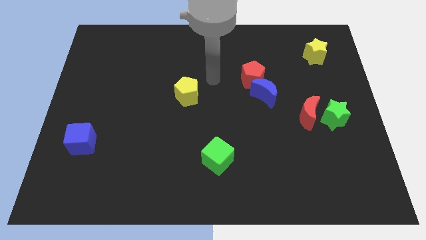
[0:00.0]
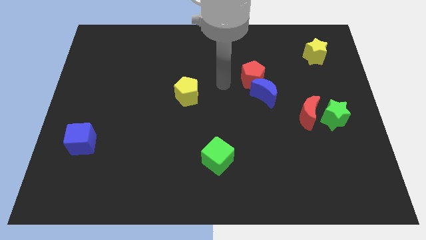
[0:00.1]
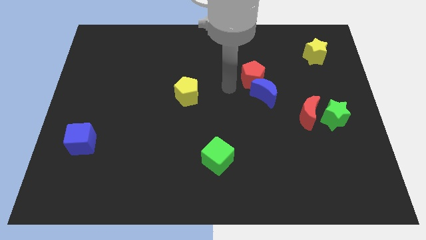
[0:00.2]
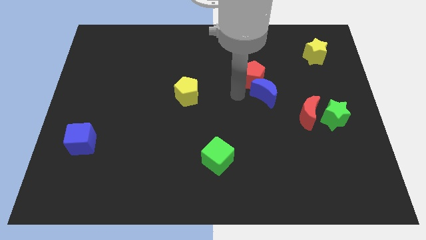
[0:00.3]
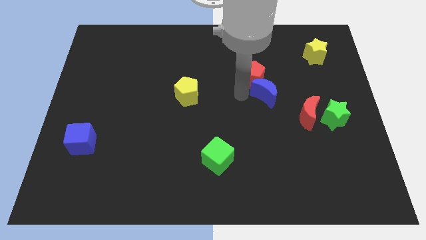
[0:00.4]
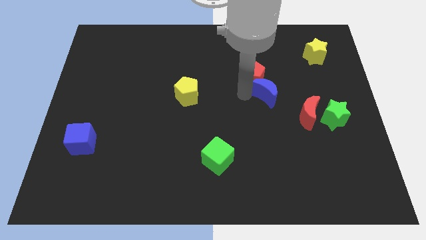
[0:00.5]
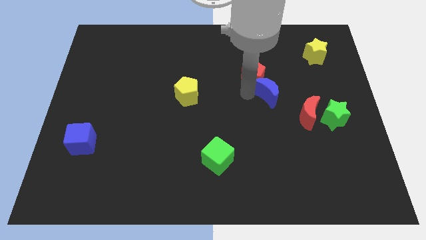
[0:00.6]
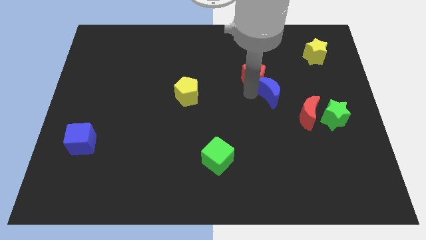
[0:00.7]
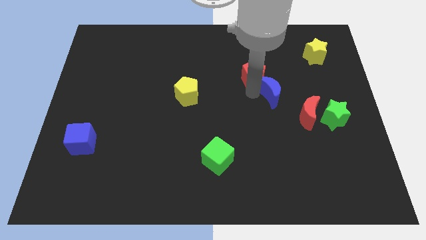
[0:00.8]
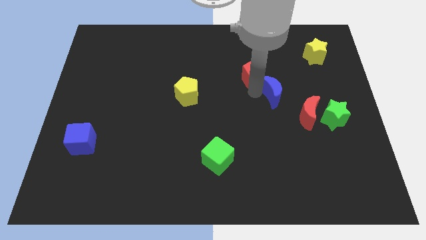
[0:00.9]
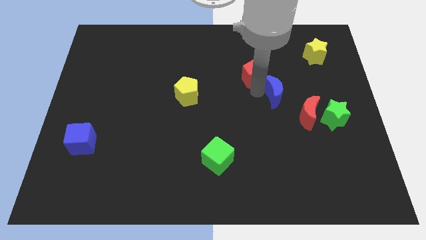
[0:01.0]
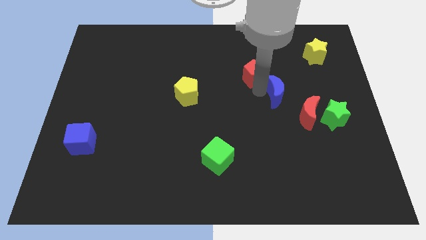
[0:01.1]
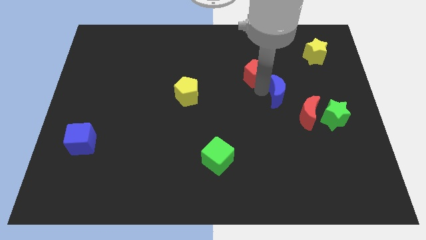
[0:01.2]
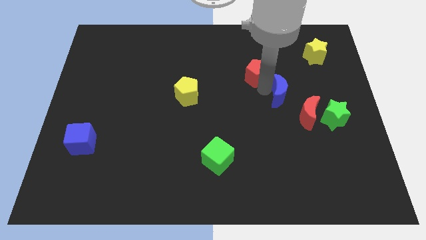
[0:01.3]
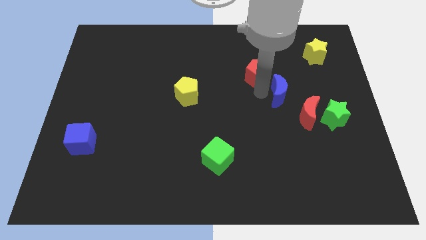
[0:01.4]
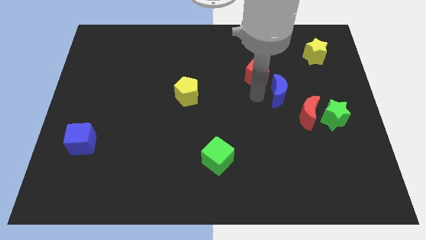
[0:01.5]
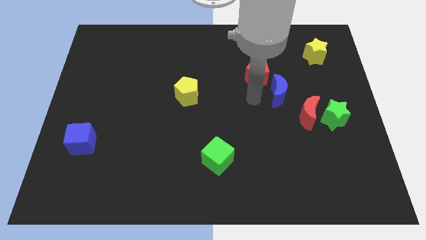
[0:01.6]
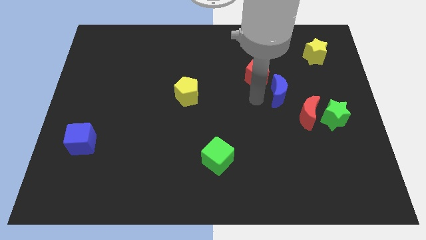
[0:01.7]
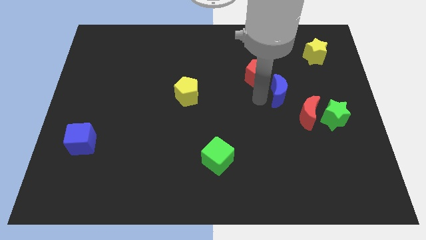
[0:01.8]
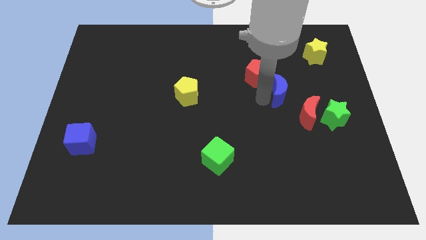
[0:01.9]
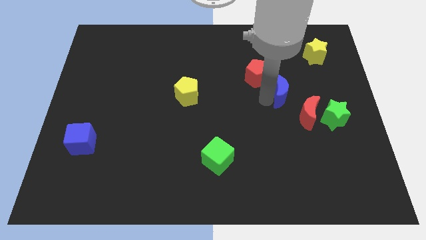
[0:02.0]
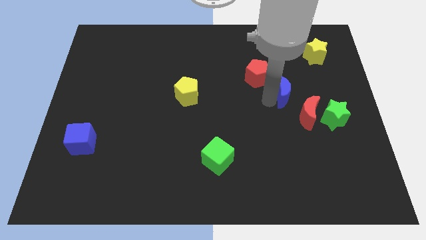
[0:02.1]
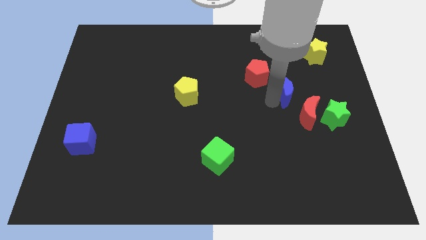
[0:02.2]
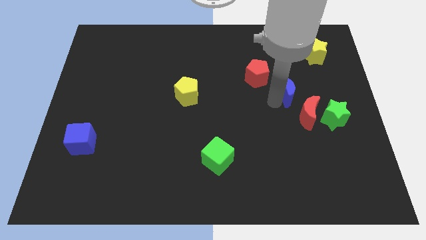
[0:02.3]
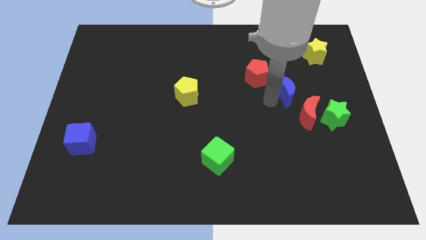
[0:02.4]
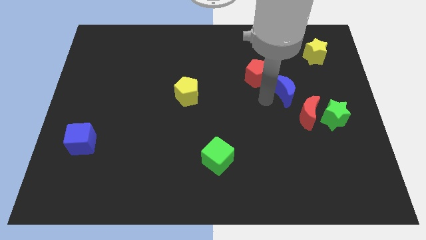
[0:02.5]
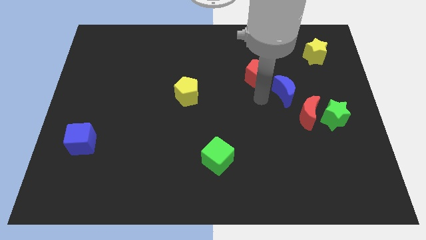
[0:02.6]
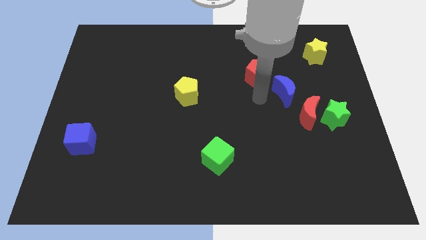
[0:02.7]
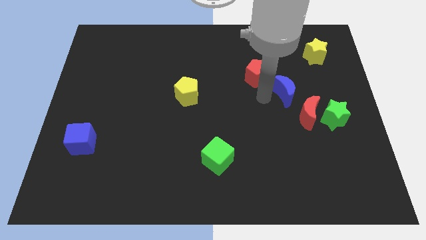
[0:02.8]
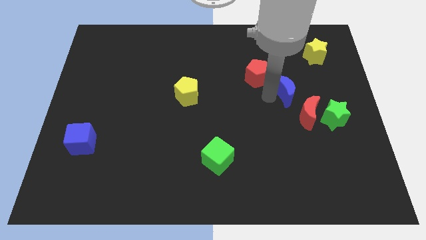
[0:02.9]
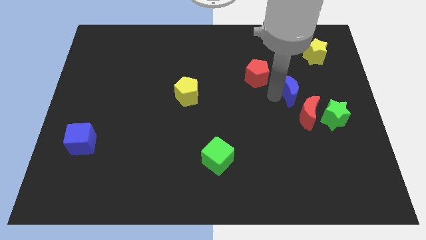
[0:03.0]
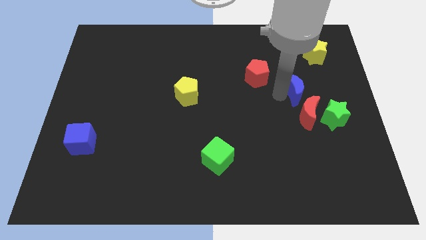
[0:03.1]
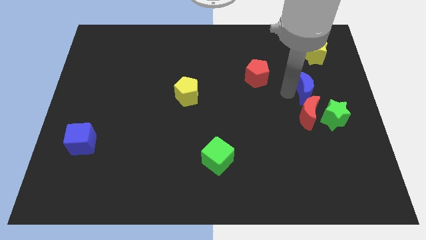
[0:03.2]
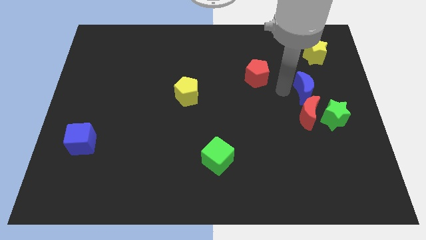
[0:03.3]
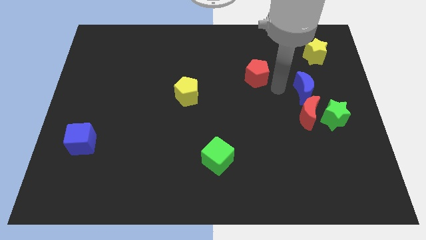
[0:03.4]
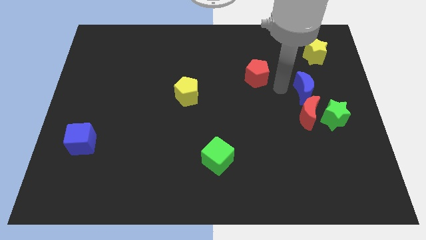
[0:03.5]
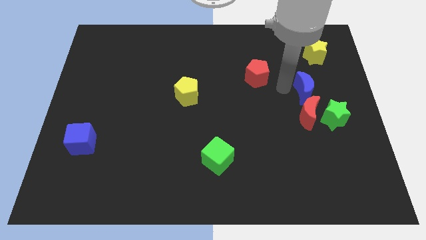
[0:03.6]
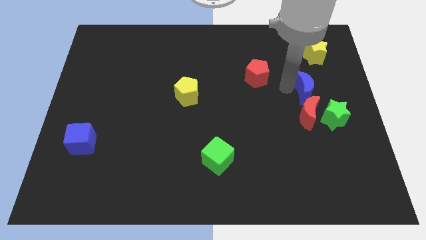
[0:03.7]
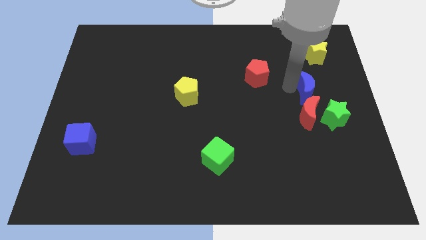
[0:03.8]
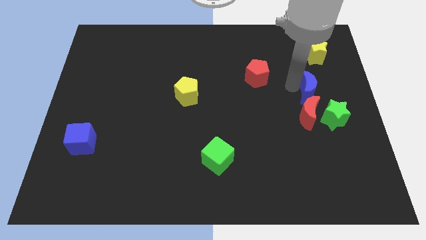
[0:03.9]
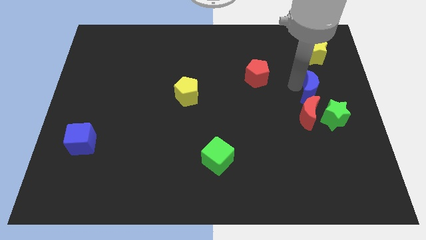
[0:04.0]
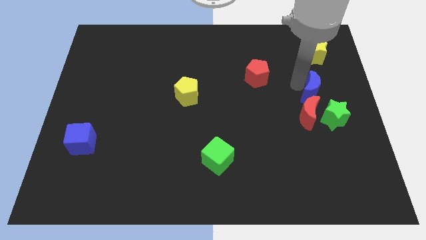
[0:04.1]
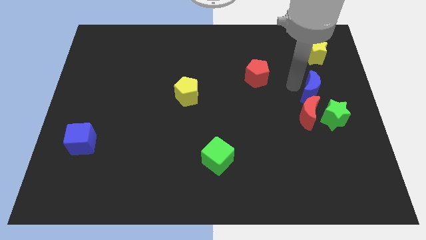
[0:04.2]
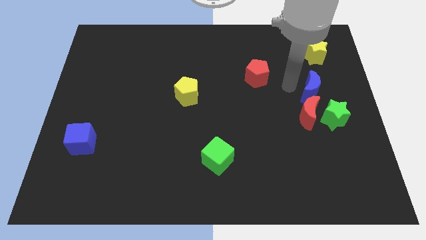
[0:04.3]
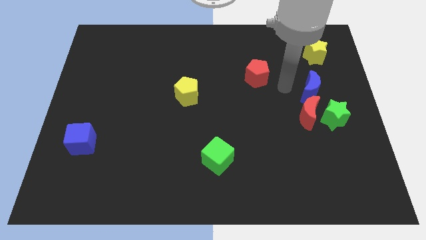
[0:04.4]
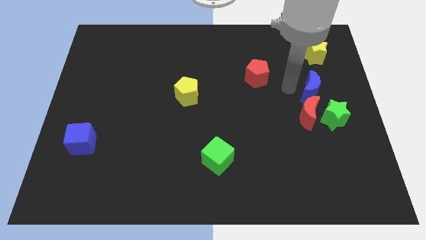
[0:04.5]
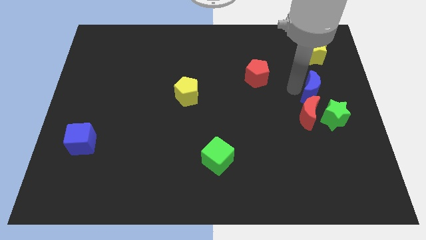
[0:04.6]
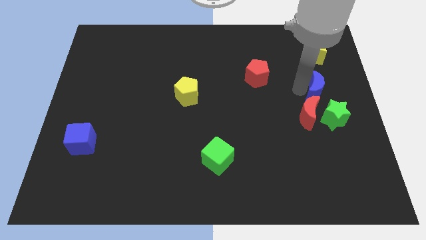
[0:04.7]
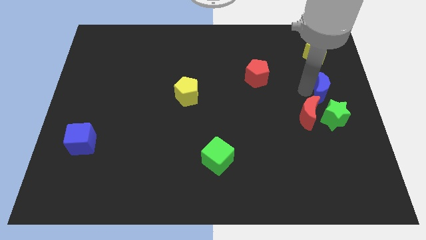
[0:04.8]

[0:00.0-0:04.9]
push the blue moon to the right side

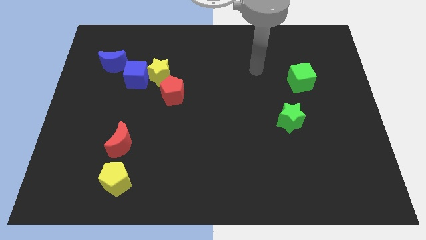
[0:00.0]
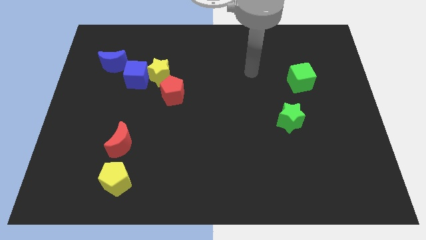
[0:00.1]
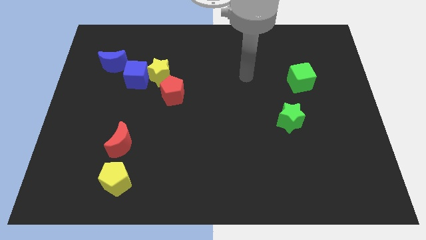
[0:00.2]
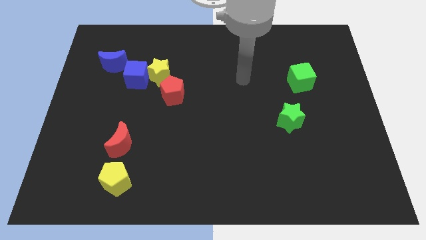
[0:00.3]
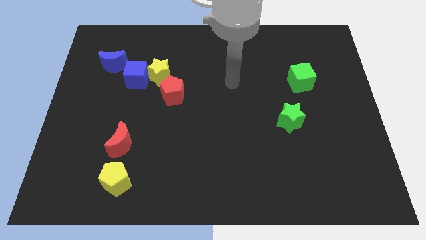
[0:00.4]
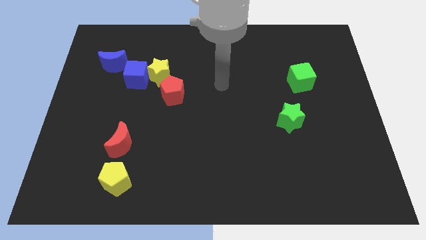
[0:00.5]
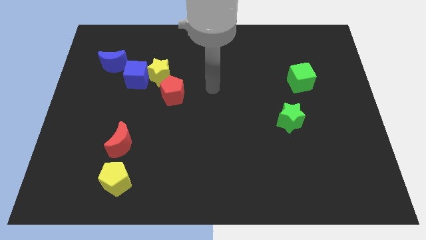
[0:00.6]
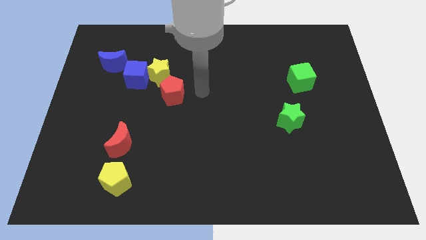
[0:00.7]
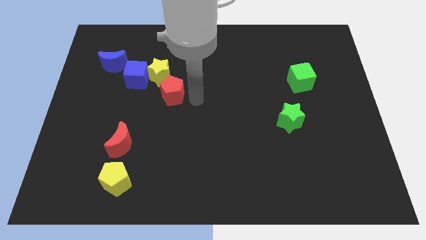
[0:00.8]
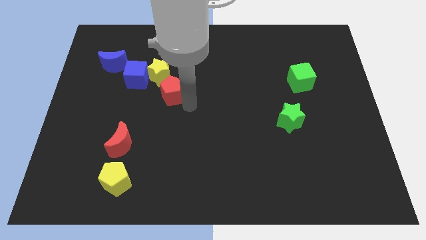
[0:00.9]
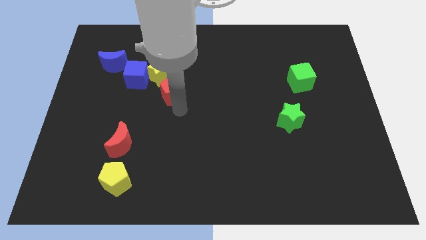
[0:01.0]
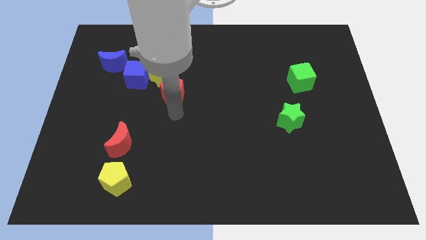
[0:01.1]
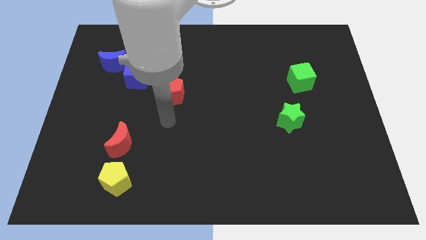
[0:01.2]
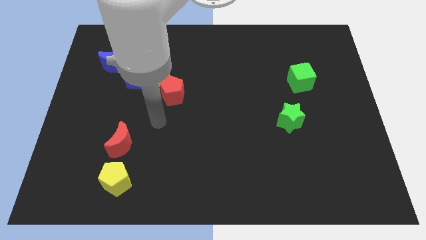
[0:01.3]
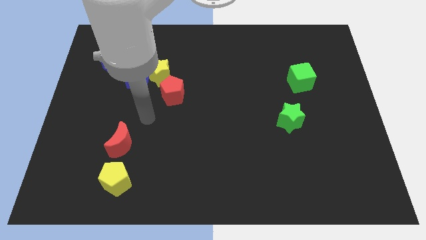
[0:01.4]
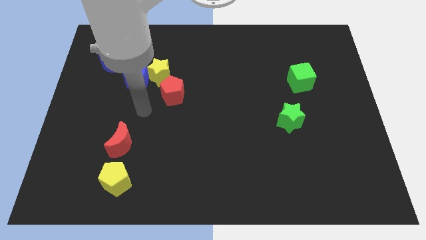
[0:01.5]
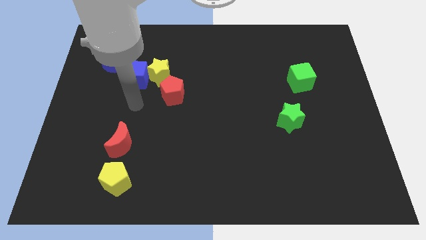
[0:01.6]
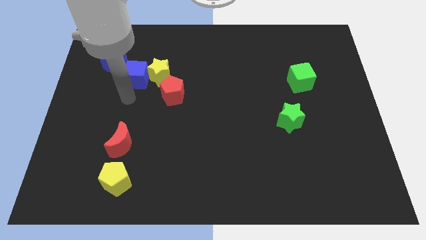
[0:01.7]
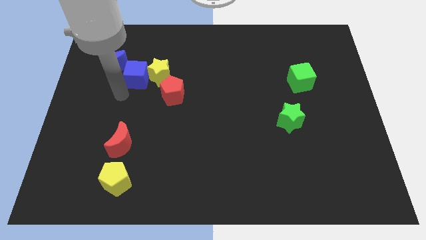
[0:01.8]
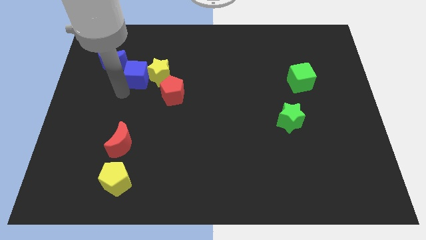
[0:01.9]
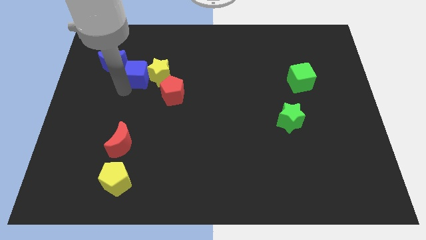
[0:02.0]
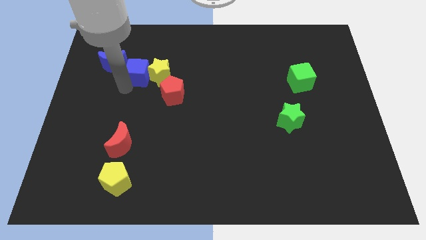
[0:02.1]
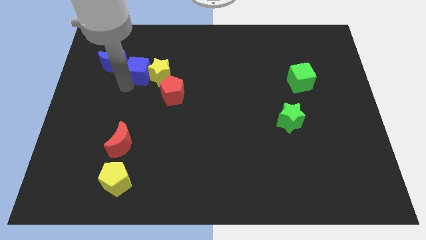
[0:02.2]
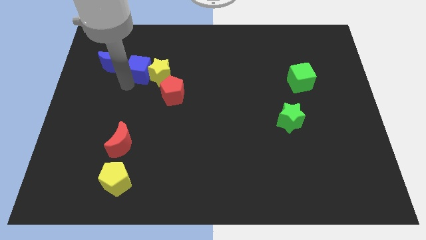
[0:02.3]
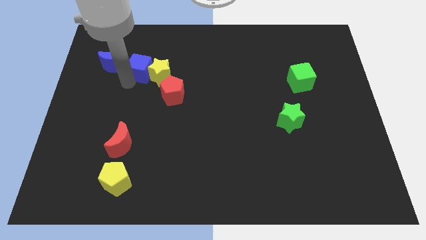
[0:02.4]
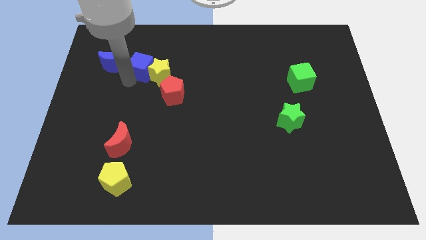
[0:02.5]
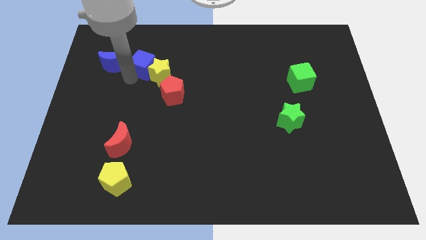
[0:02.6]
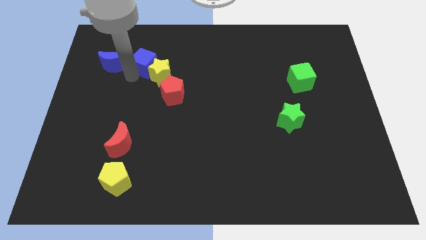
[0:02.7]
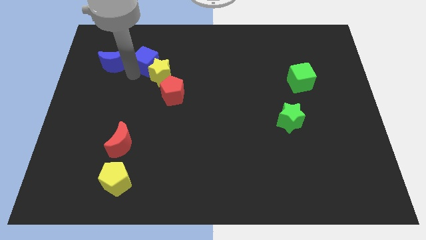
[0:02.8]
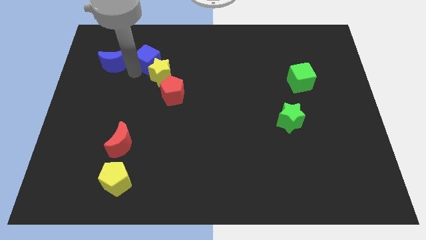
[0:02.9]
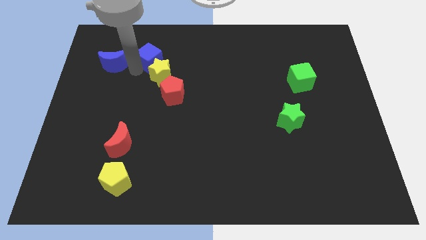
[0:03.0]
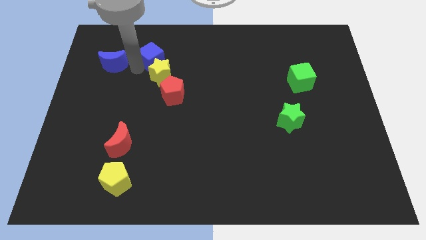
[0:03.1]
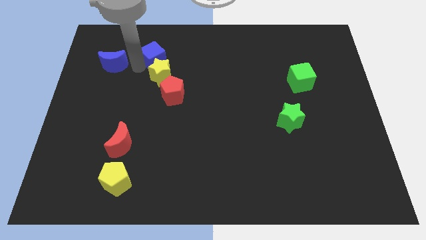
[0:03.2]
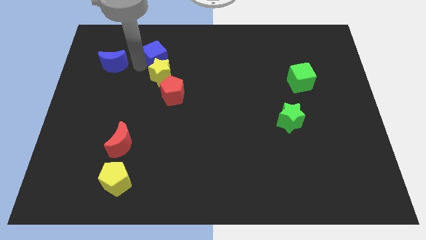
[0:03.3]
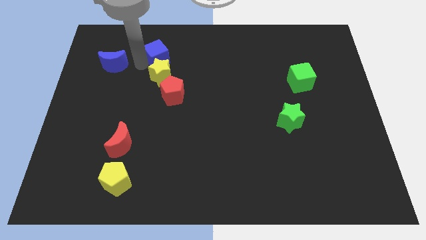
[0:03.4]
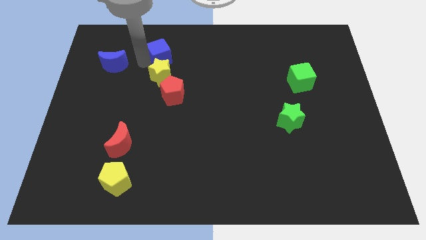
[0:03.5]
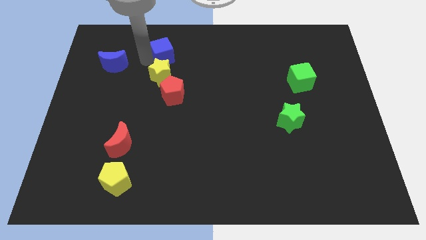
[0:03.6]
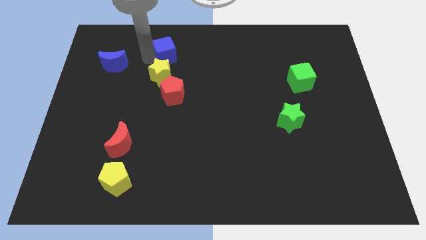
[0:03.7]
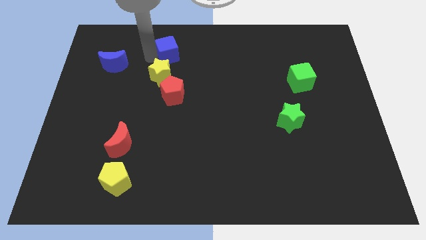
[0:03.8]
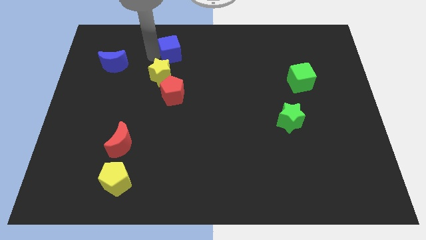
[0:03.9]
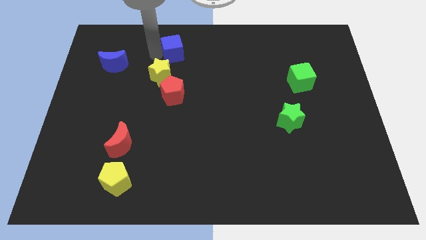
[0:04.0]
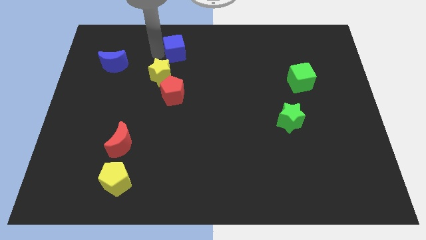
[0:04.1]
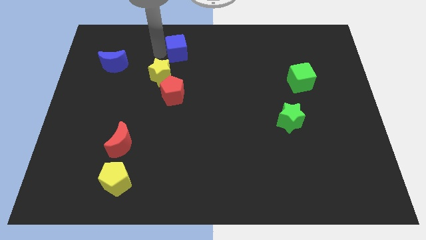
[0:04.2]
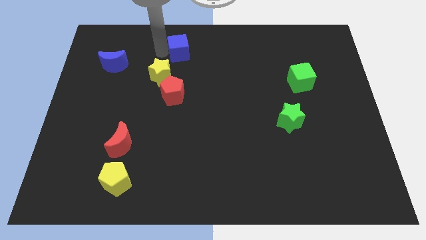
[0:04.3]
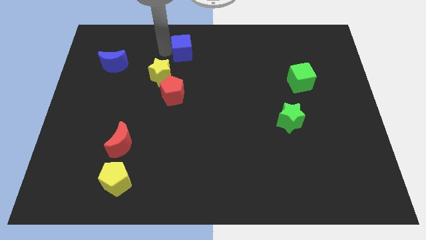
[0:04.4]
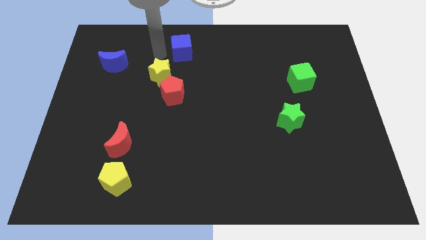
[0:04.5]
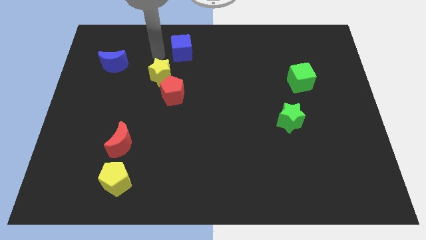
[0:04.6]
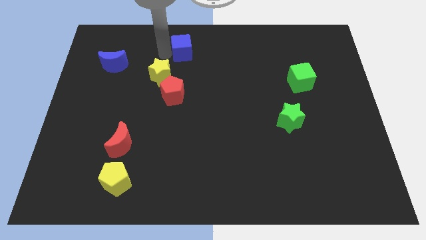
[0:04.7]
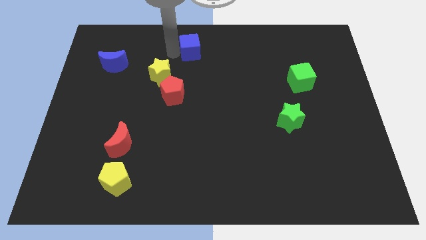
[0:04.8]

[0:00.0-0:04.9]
slide the blue cube to the top
